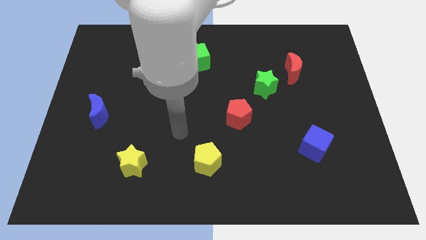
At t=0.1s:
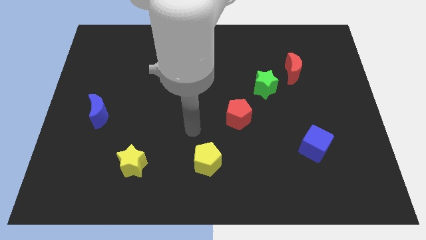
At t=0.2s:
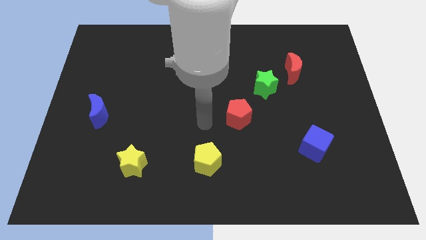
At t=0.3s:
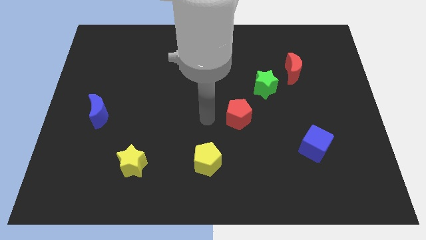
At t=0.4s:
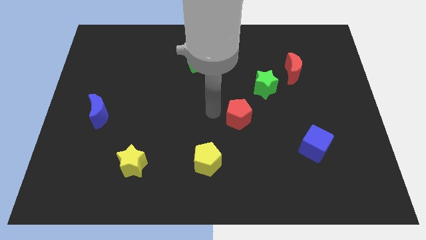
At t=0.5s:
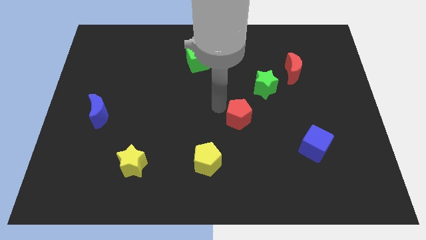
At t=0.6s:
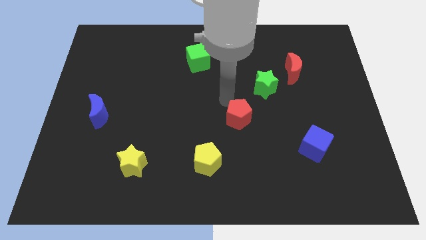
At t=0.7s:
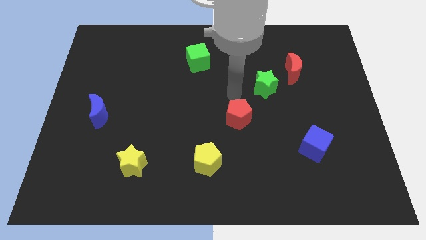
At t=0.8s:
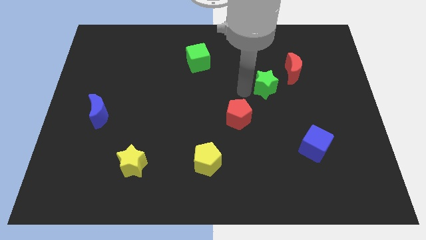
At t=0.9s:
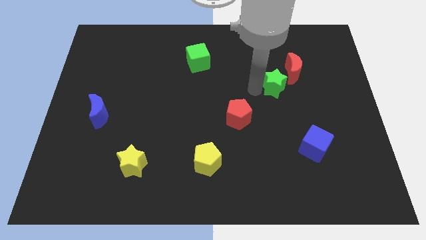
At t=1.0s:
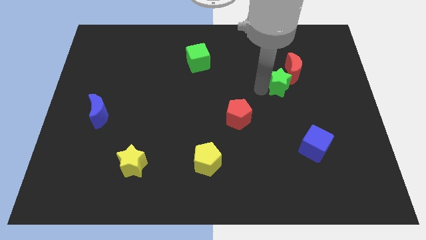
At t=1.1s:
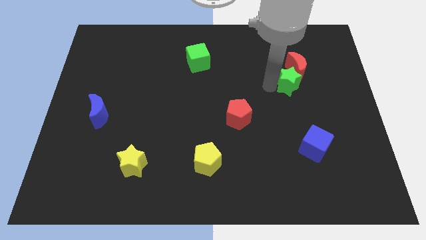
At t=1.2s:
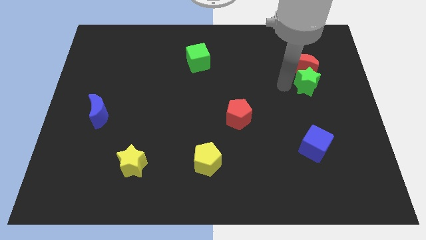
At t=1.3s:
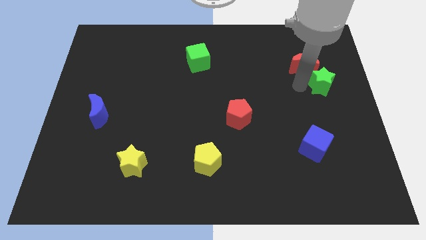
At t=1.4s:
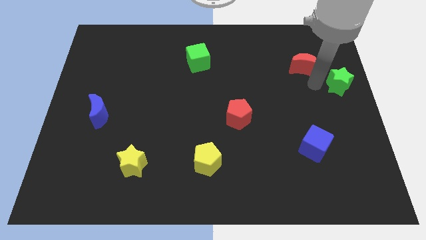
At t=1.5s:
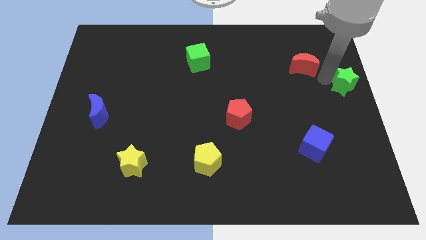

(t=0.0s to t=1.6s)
pull the red moon apart from the green star

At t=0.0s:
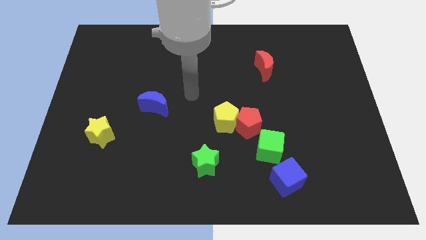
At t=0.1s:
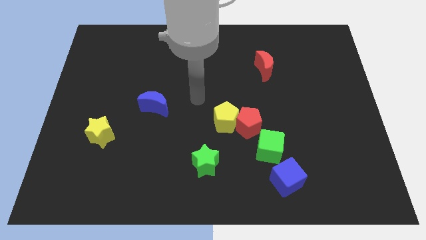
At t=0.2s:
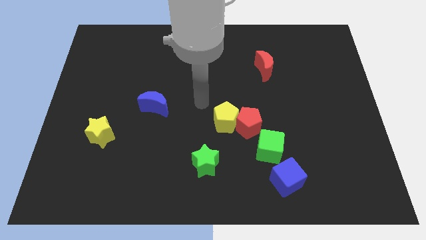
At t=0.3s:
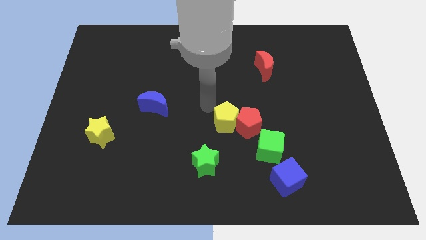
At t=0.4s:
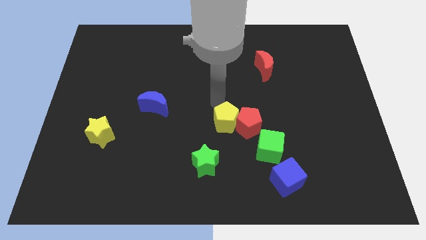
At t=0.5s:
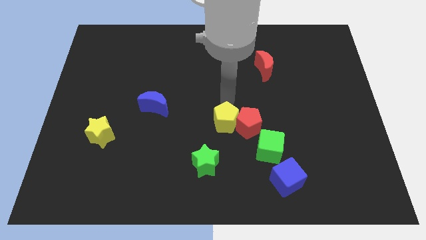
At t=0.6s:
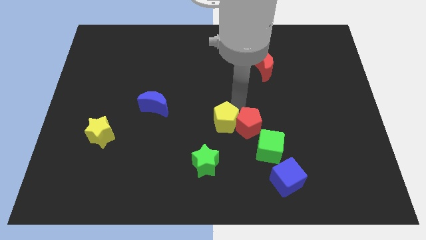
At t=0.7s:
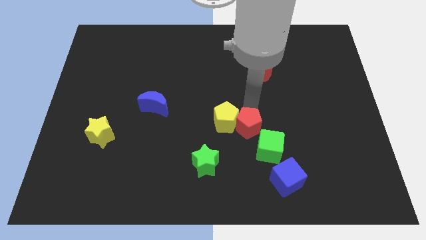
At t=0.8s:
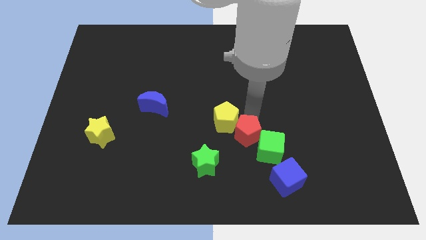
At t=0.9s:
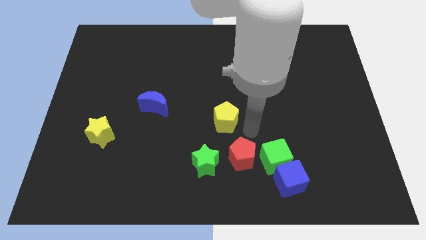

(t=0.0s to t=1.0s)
pull the yellow pentagon apart from the red pentagon

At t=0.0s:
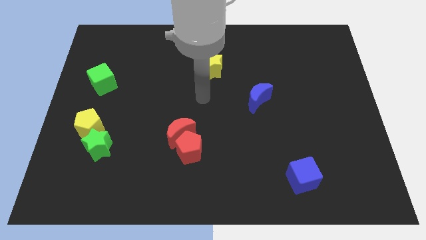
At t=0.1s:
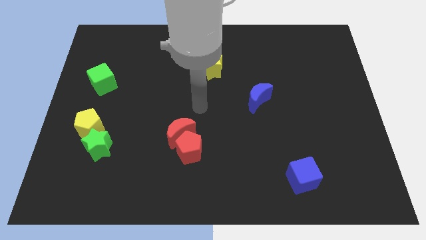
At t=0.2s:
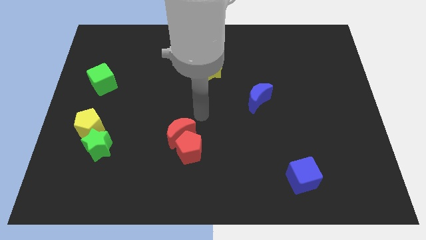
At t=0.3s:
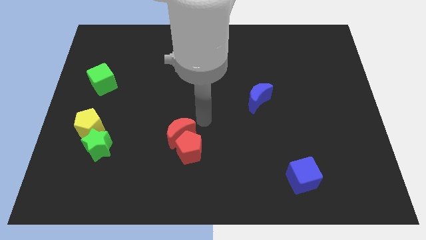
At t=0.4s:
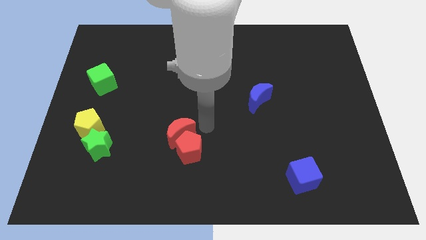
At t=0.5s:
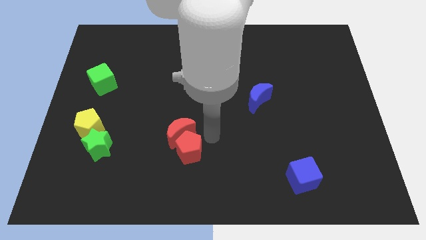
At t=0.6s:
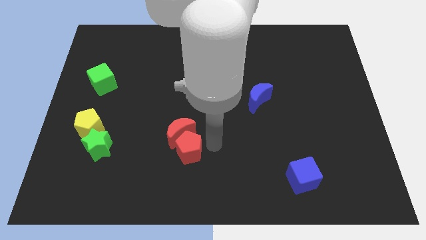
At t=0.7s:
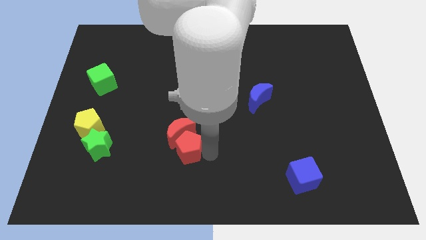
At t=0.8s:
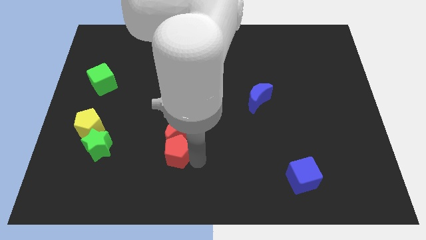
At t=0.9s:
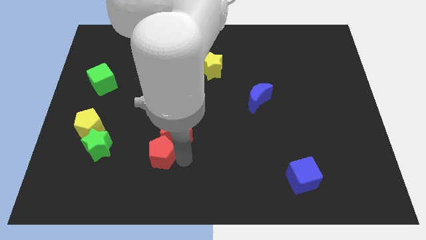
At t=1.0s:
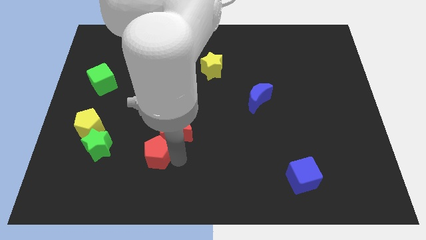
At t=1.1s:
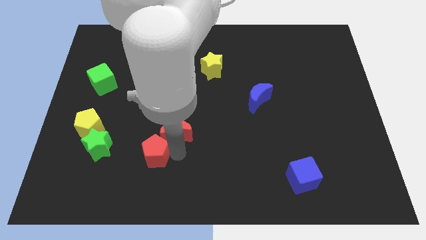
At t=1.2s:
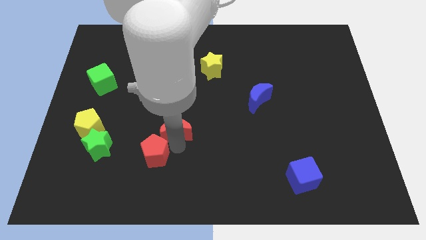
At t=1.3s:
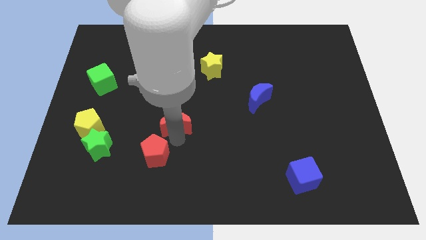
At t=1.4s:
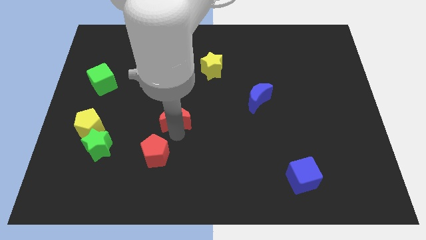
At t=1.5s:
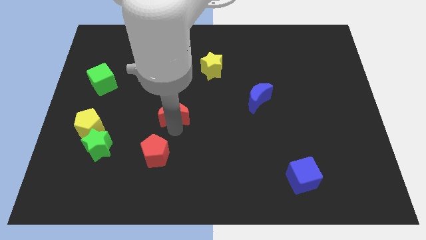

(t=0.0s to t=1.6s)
separate the red moon from the red pentagon

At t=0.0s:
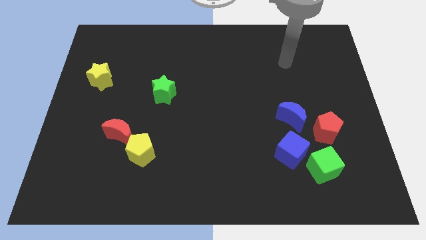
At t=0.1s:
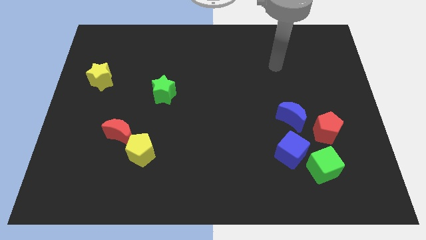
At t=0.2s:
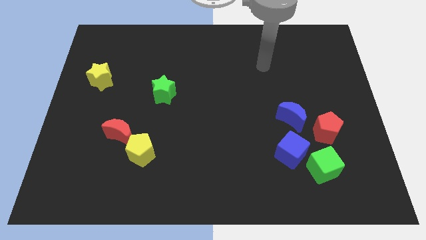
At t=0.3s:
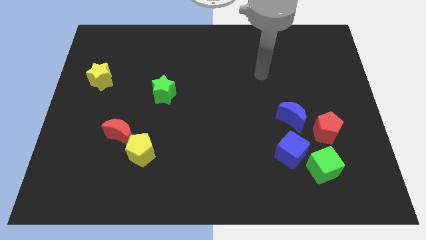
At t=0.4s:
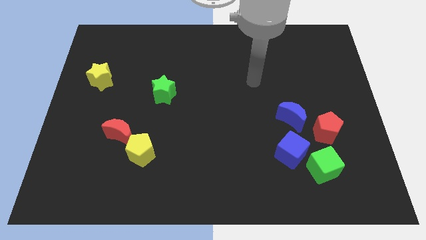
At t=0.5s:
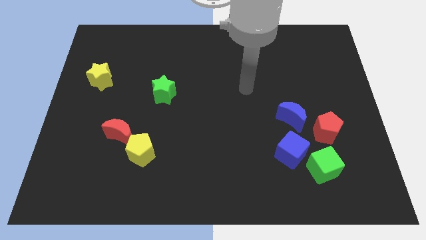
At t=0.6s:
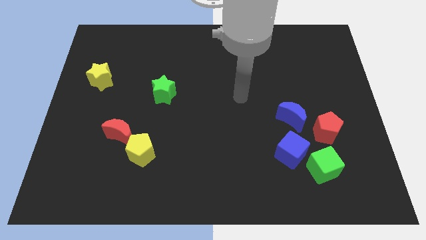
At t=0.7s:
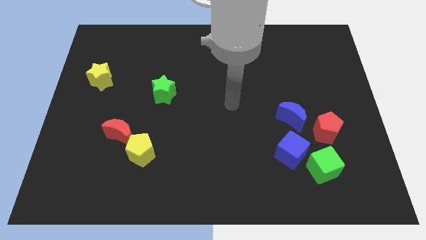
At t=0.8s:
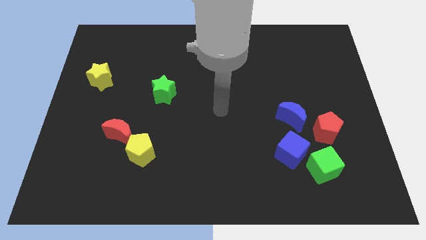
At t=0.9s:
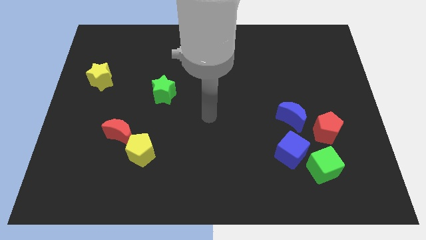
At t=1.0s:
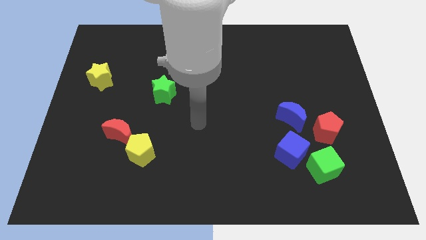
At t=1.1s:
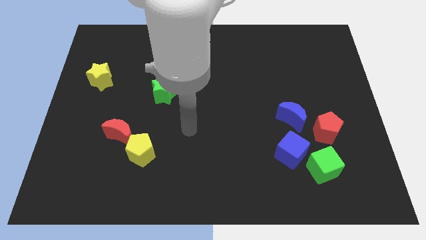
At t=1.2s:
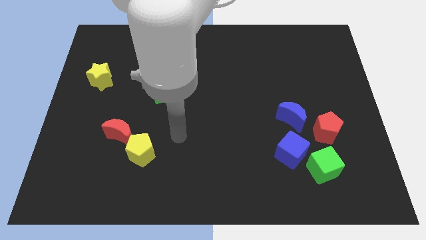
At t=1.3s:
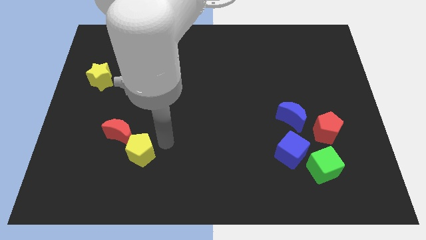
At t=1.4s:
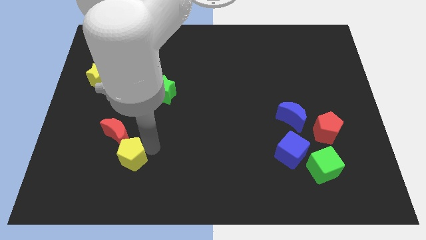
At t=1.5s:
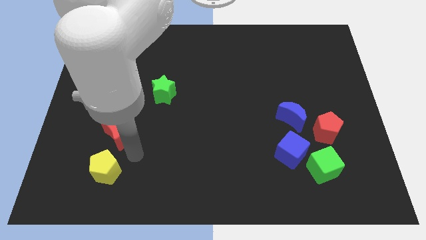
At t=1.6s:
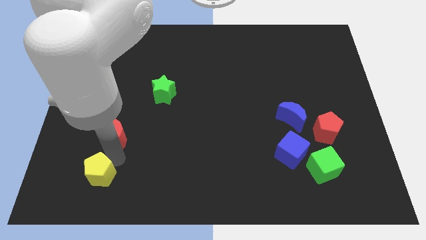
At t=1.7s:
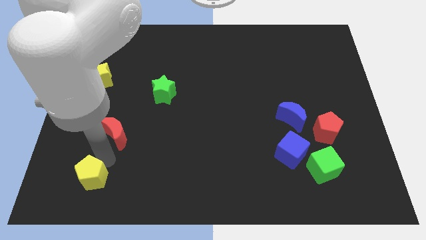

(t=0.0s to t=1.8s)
move the red moon away from the yellow pentagon

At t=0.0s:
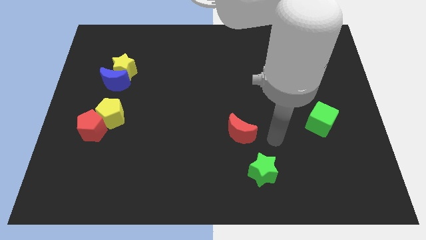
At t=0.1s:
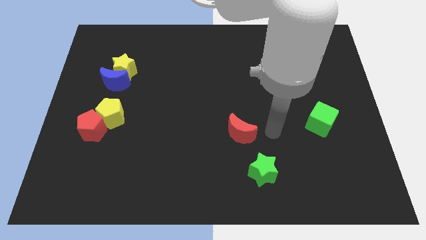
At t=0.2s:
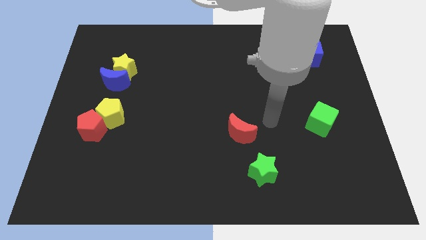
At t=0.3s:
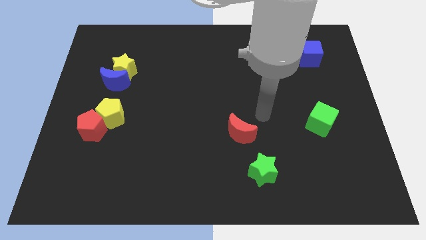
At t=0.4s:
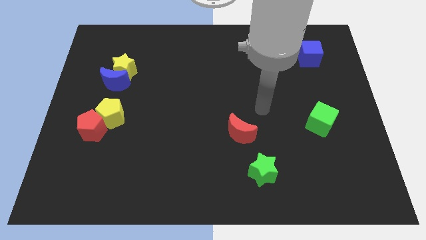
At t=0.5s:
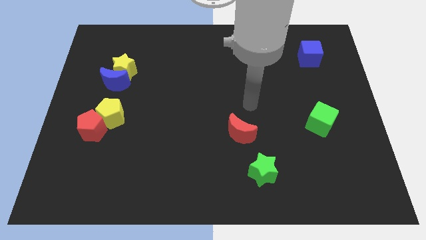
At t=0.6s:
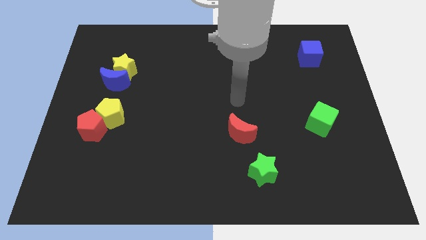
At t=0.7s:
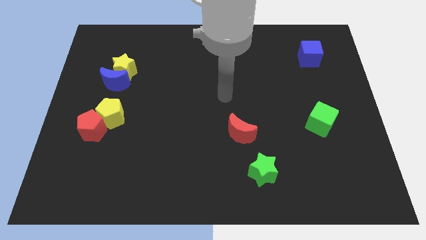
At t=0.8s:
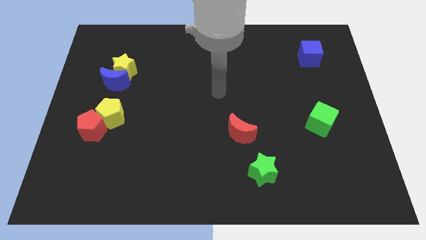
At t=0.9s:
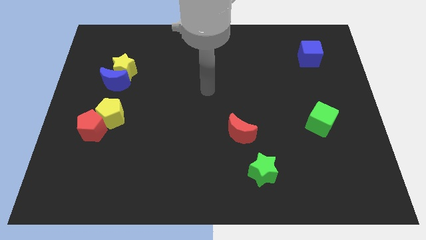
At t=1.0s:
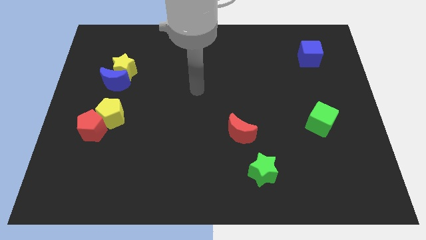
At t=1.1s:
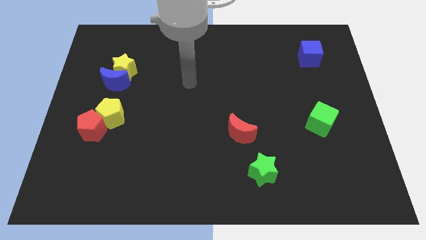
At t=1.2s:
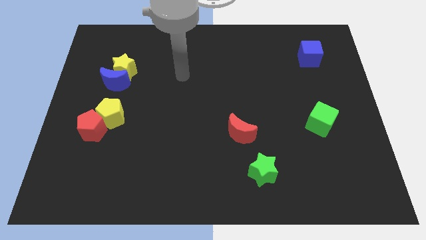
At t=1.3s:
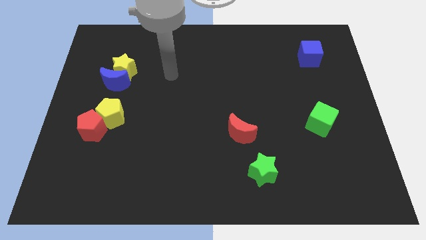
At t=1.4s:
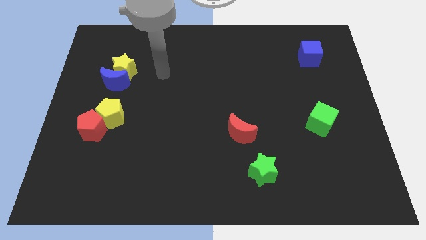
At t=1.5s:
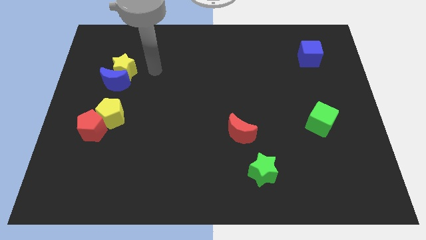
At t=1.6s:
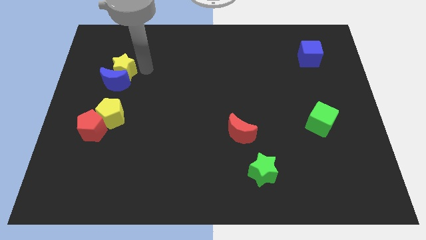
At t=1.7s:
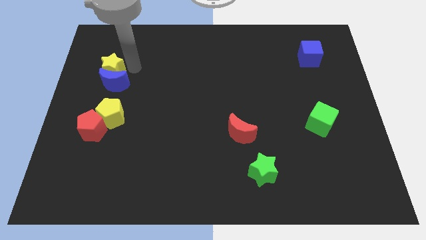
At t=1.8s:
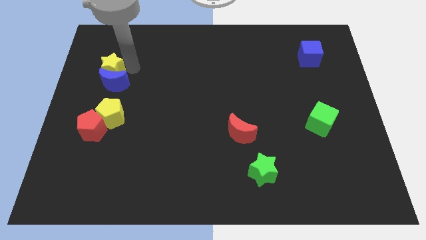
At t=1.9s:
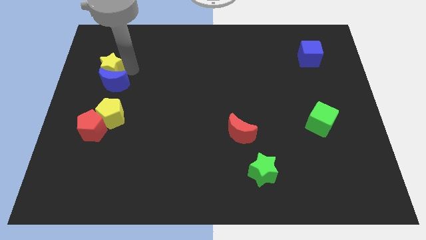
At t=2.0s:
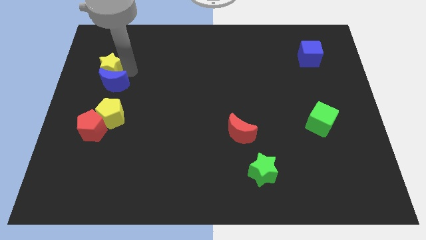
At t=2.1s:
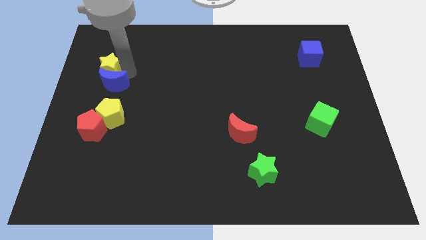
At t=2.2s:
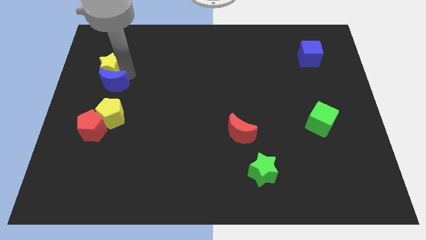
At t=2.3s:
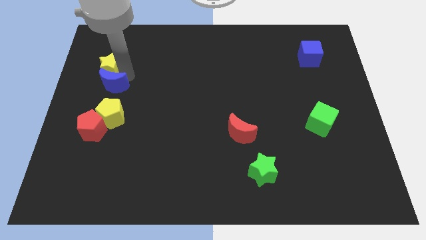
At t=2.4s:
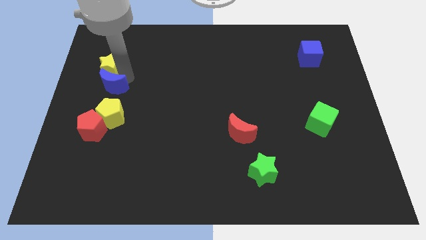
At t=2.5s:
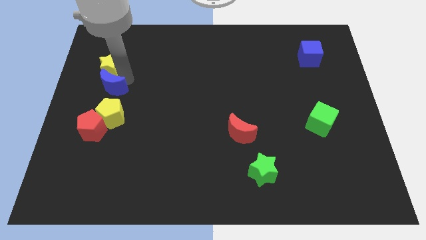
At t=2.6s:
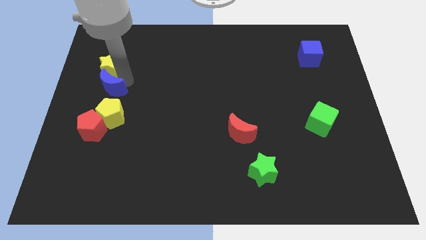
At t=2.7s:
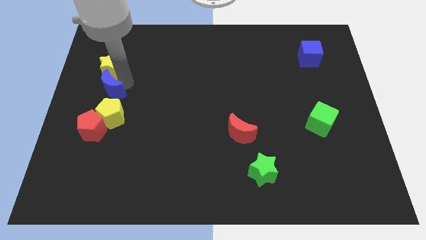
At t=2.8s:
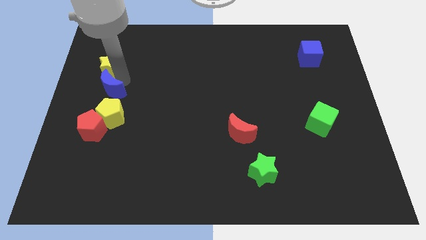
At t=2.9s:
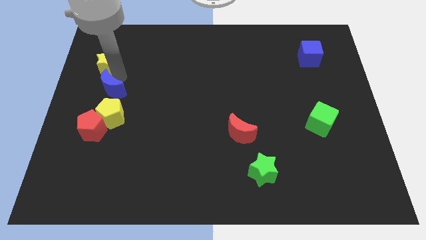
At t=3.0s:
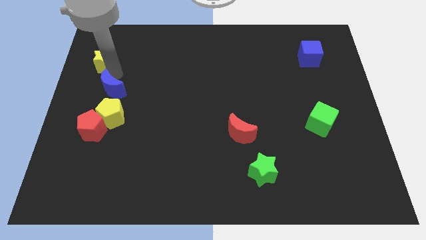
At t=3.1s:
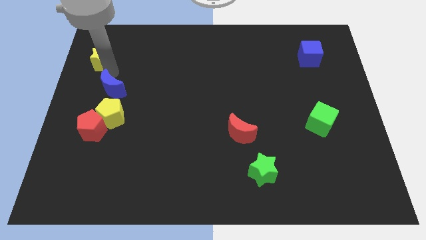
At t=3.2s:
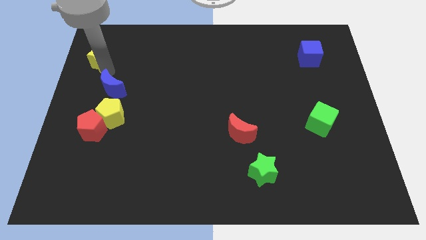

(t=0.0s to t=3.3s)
separate the blue moon from the yellow star
